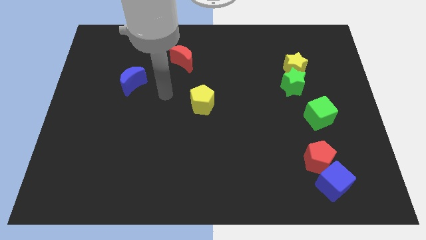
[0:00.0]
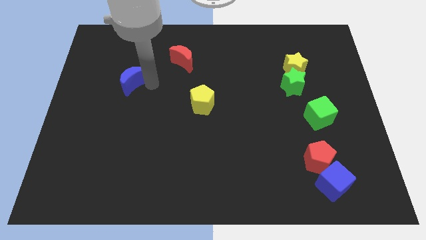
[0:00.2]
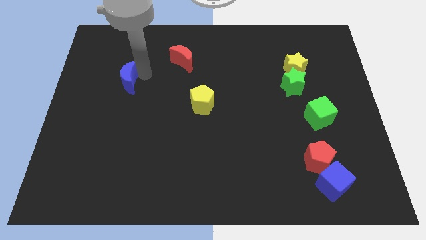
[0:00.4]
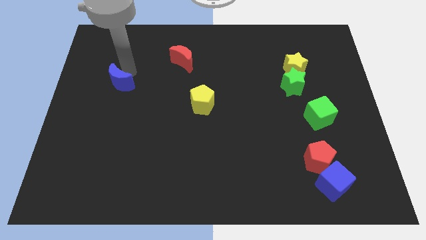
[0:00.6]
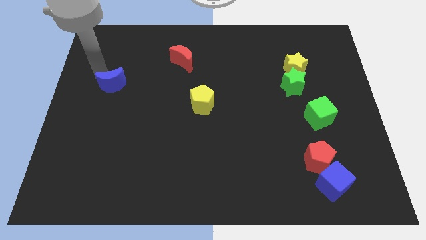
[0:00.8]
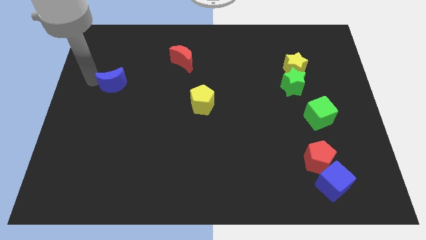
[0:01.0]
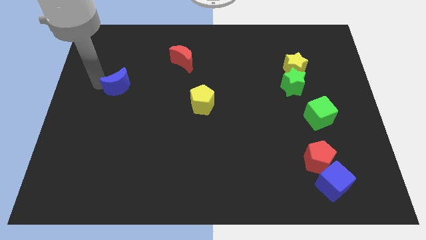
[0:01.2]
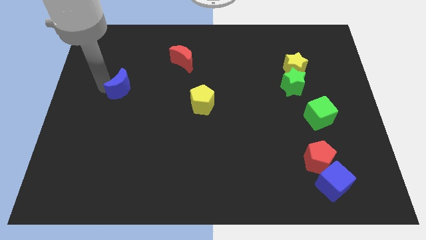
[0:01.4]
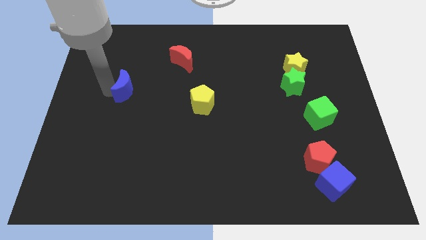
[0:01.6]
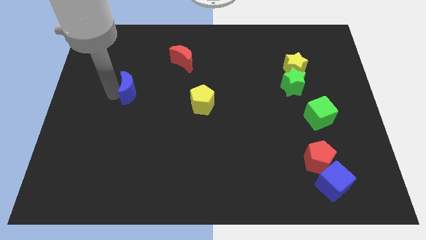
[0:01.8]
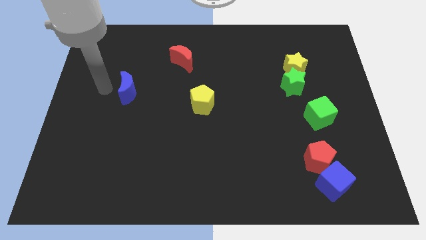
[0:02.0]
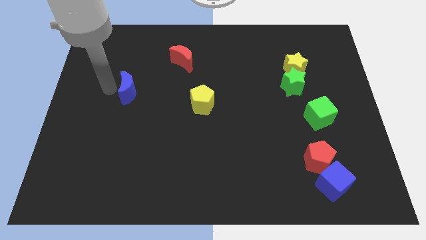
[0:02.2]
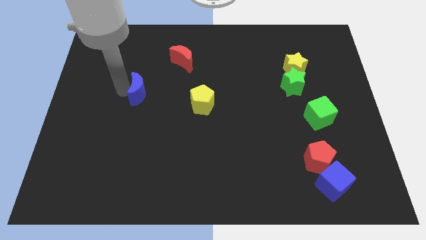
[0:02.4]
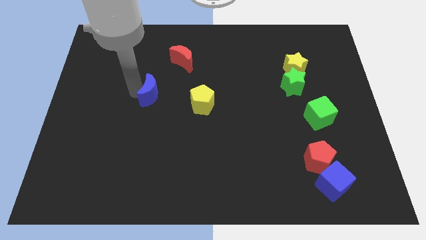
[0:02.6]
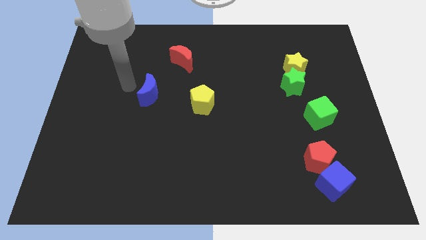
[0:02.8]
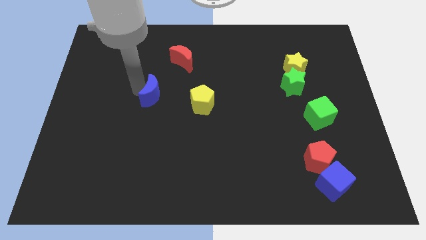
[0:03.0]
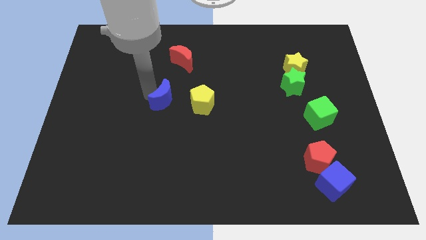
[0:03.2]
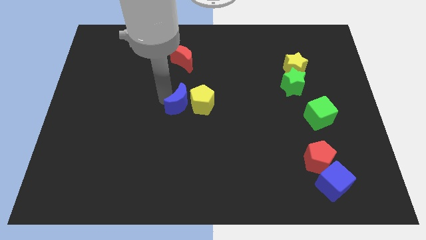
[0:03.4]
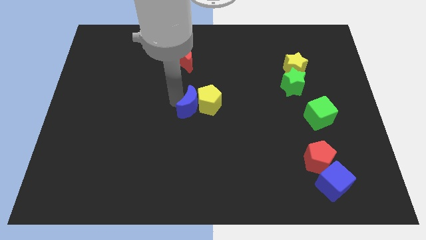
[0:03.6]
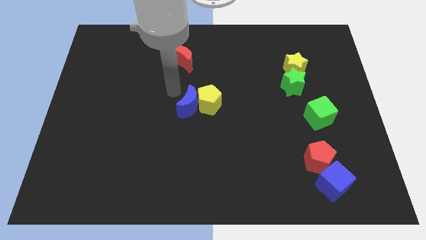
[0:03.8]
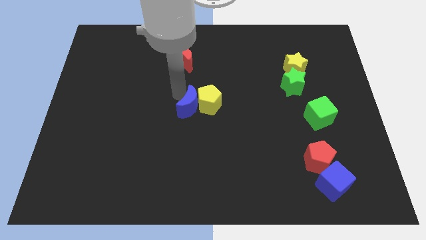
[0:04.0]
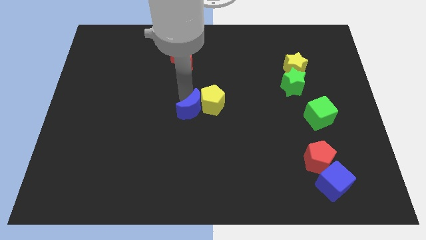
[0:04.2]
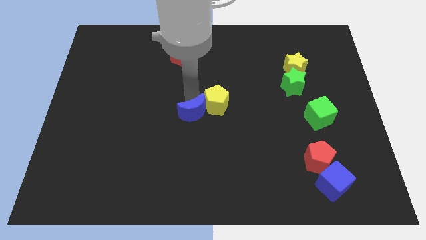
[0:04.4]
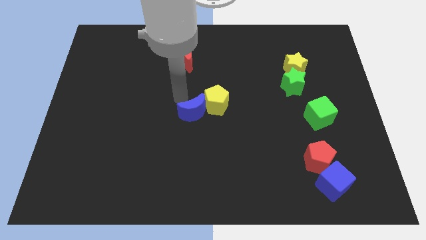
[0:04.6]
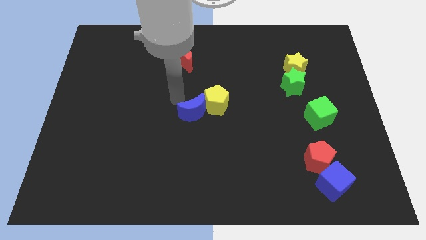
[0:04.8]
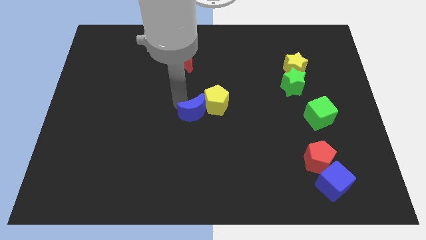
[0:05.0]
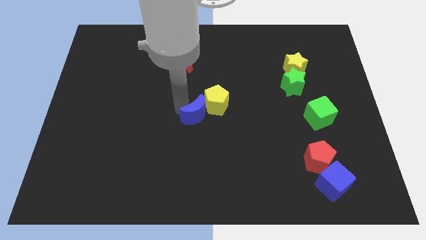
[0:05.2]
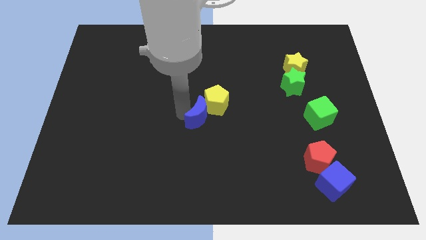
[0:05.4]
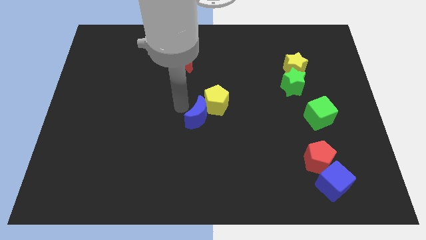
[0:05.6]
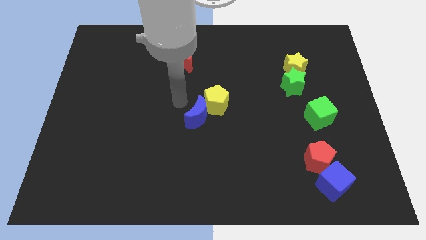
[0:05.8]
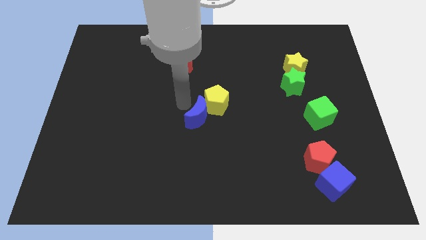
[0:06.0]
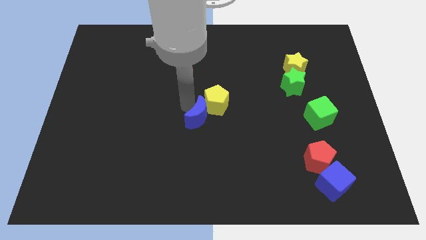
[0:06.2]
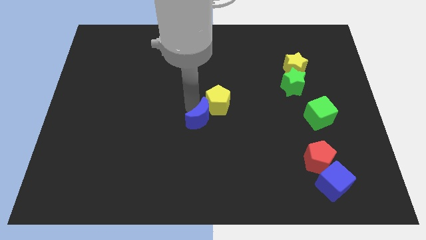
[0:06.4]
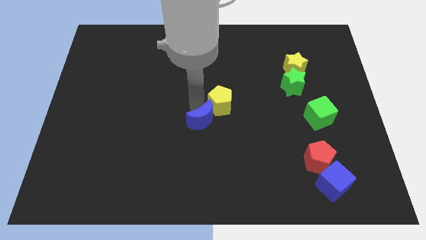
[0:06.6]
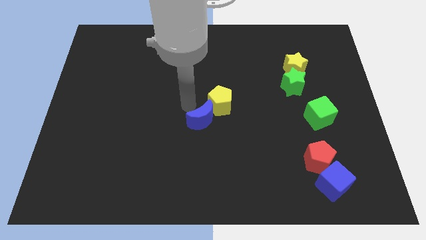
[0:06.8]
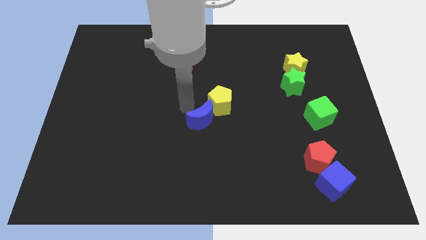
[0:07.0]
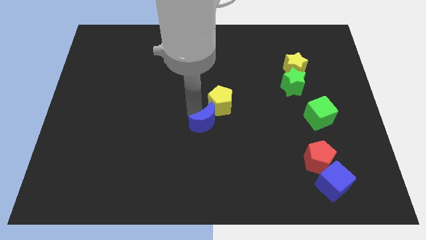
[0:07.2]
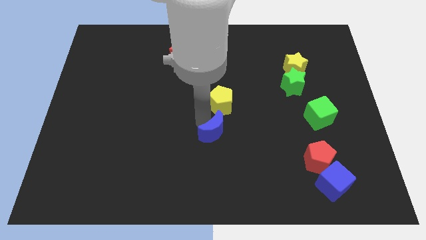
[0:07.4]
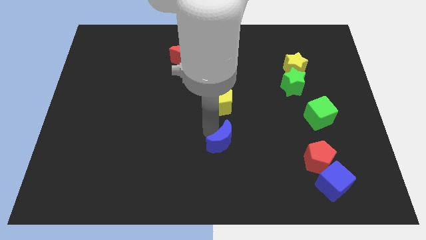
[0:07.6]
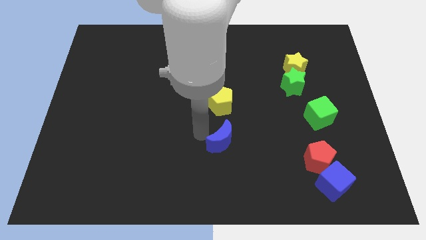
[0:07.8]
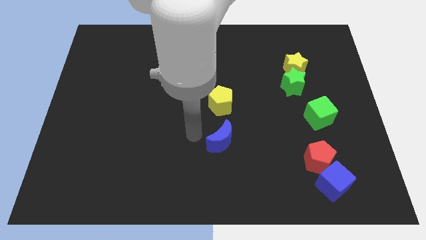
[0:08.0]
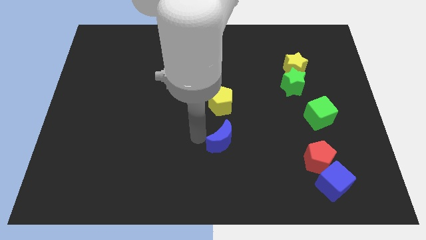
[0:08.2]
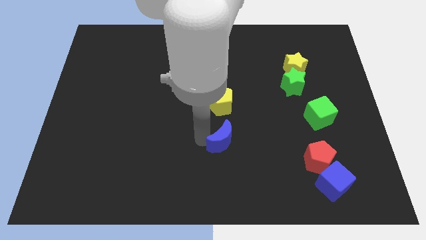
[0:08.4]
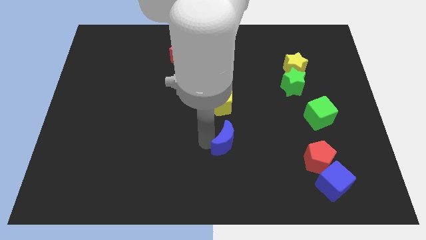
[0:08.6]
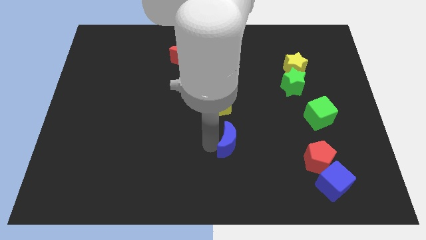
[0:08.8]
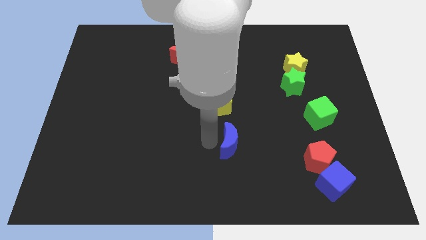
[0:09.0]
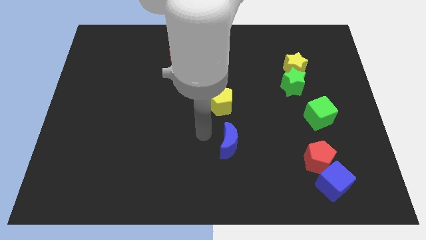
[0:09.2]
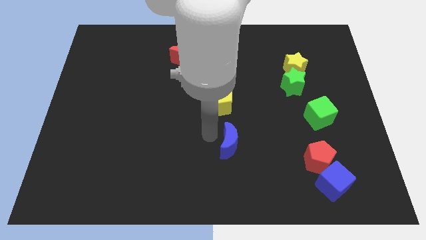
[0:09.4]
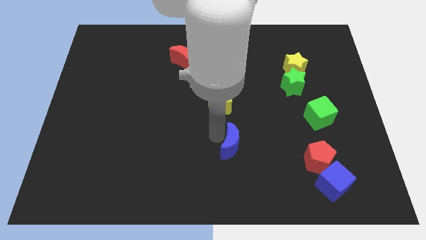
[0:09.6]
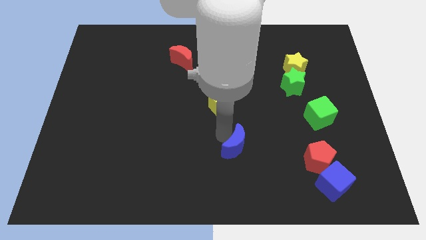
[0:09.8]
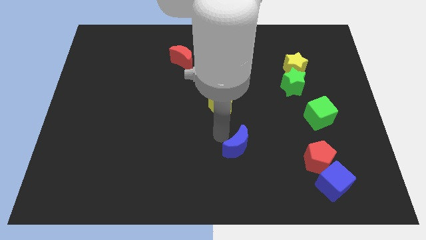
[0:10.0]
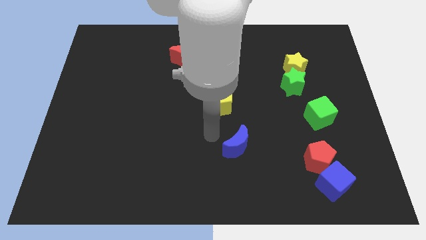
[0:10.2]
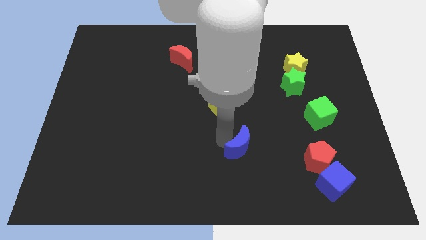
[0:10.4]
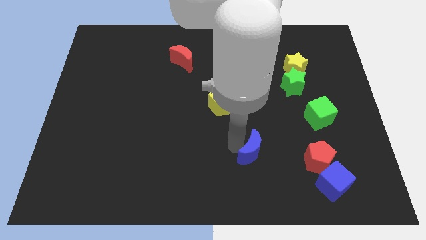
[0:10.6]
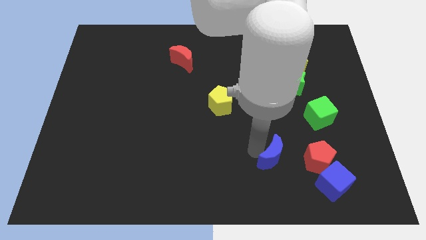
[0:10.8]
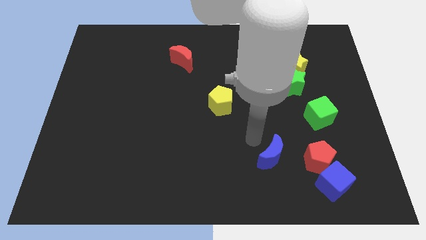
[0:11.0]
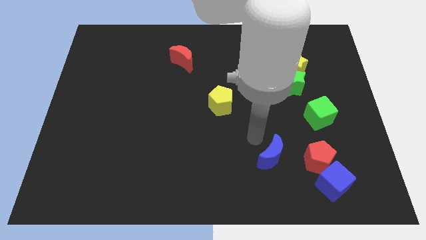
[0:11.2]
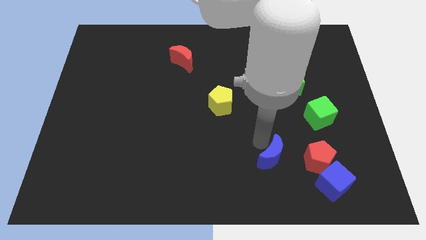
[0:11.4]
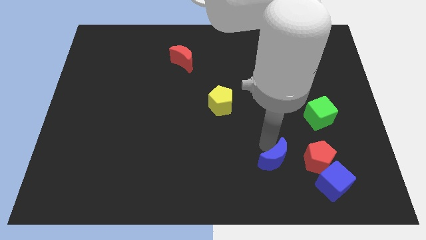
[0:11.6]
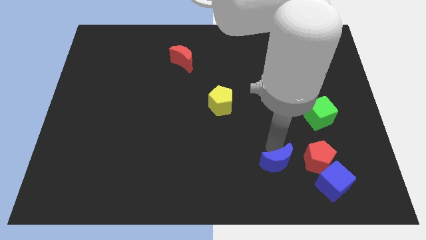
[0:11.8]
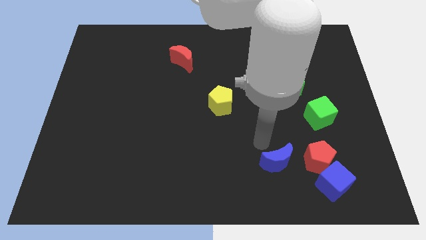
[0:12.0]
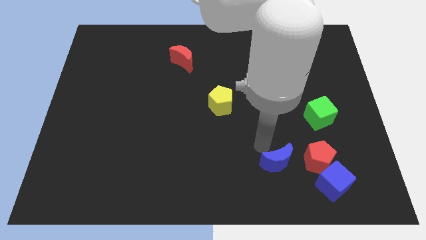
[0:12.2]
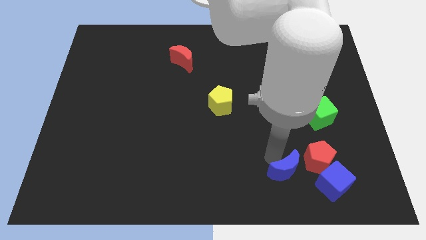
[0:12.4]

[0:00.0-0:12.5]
put the blue moon to the bottom left side of the red pentagon

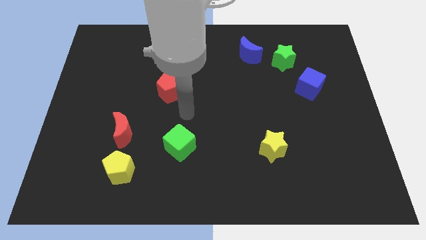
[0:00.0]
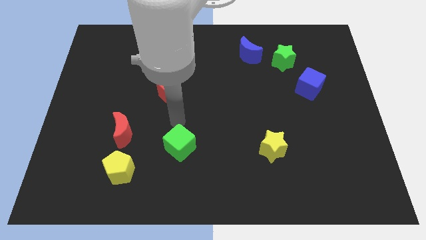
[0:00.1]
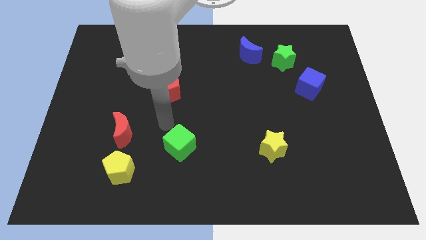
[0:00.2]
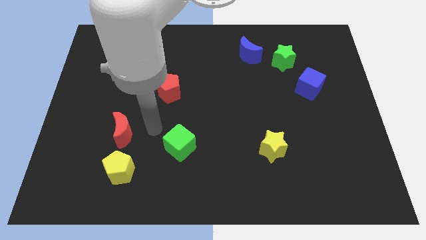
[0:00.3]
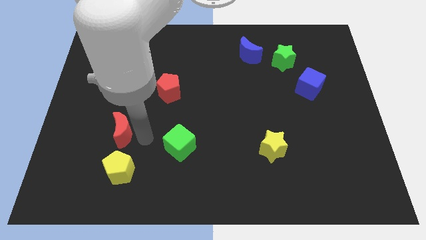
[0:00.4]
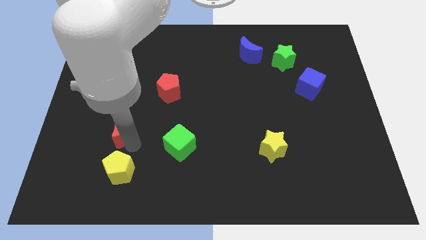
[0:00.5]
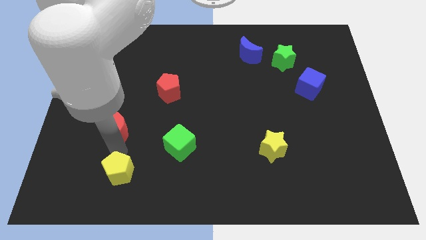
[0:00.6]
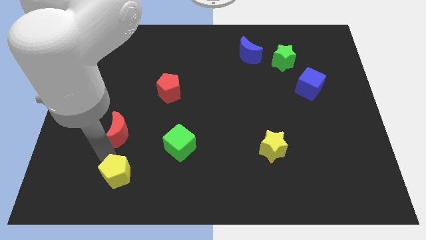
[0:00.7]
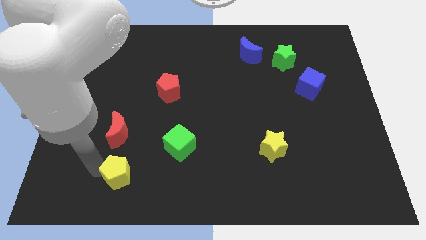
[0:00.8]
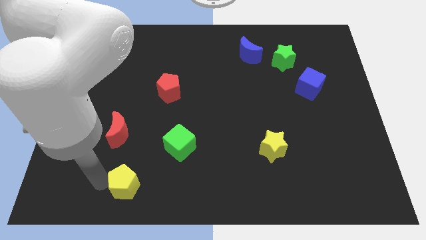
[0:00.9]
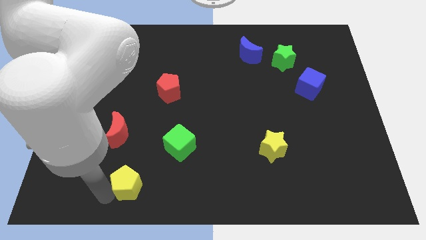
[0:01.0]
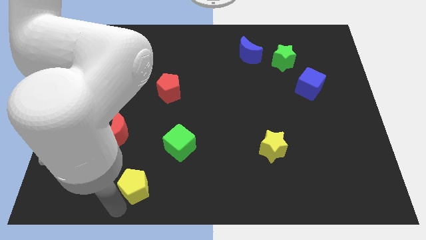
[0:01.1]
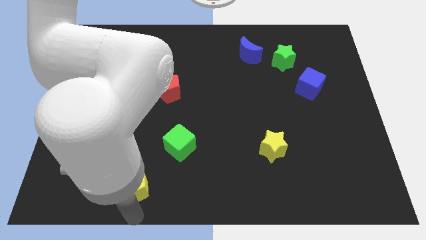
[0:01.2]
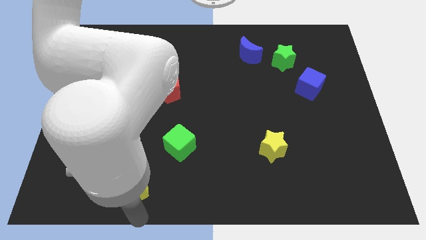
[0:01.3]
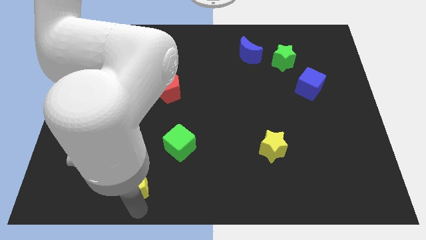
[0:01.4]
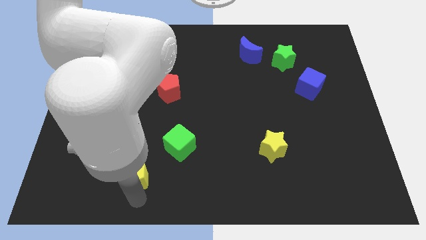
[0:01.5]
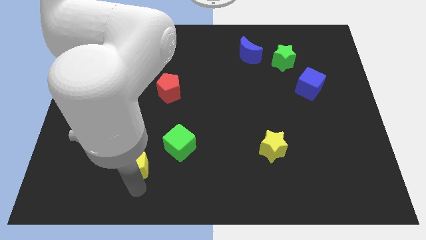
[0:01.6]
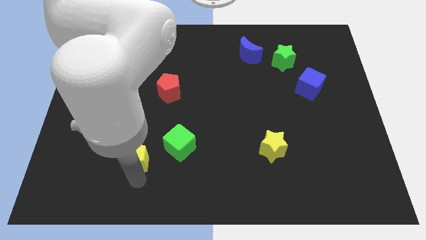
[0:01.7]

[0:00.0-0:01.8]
slide the yellow pentagon left of the green cube
